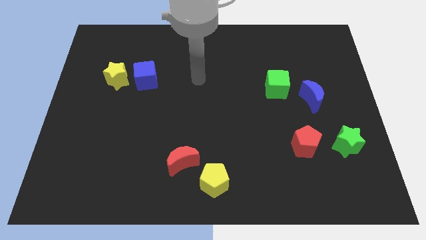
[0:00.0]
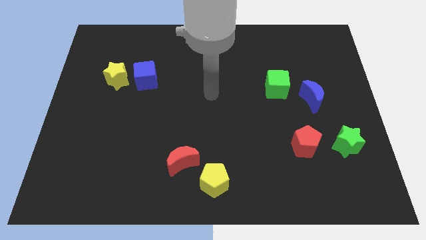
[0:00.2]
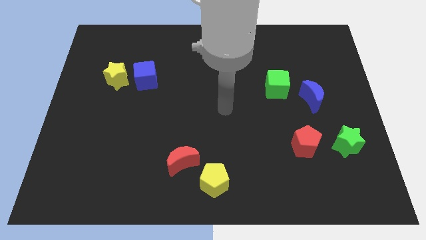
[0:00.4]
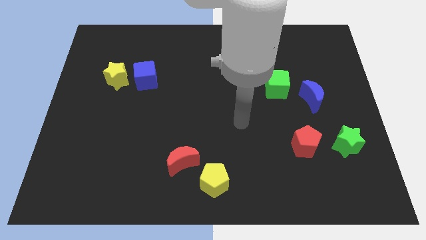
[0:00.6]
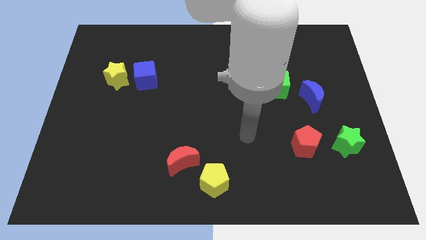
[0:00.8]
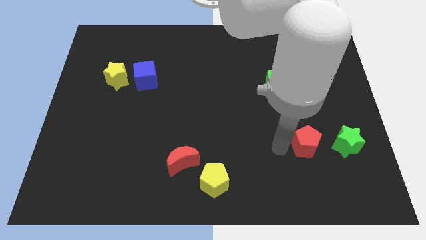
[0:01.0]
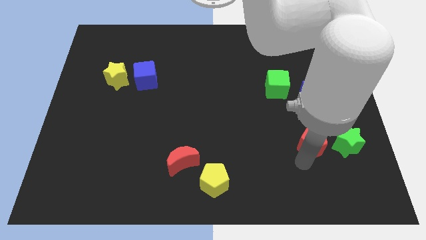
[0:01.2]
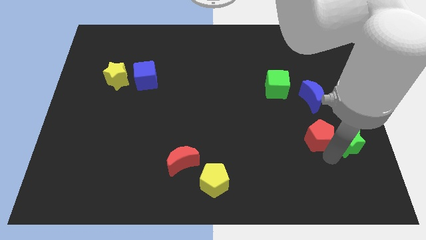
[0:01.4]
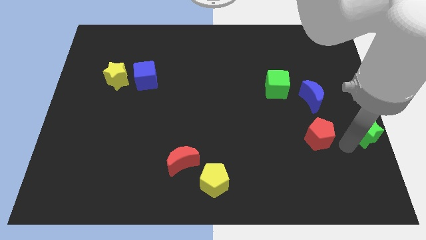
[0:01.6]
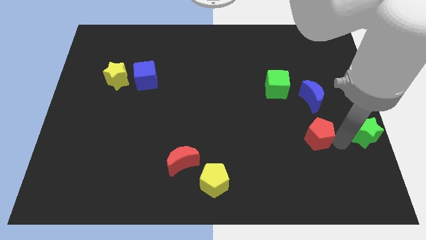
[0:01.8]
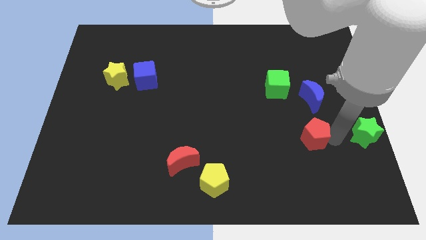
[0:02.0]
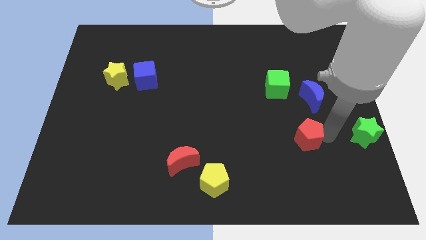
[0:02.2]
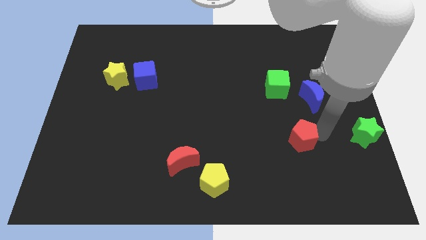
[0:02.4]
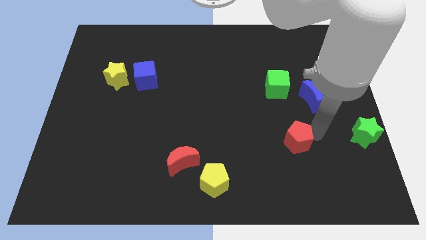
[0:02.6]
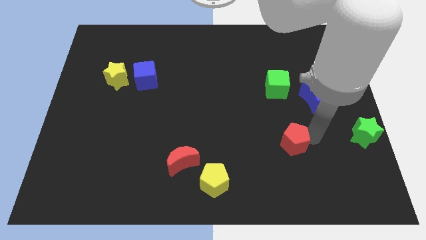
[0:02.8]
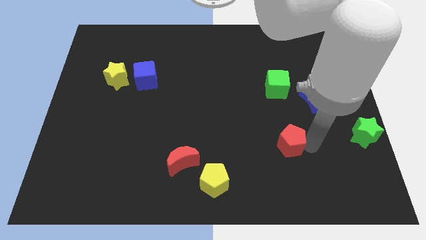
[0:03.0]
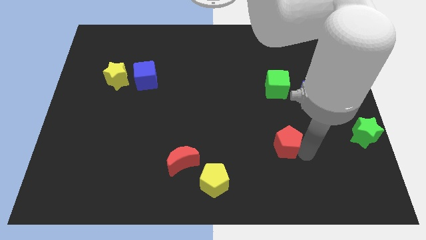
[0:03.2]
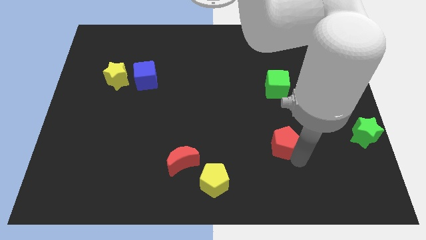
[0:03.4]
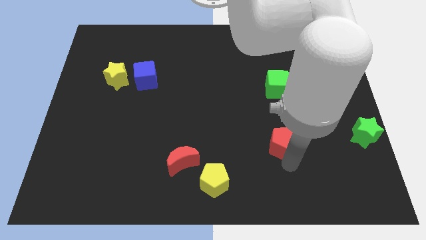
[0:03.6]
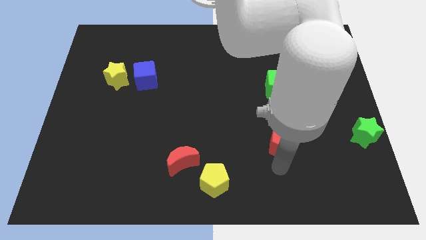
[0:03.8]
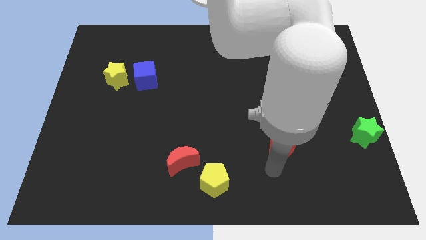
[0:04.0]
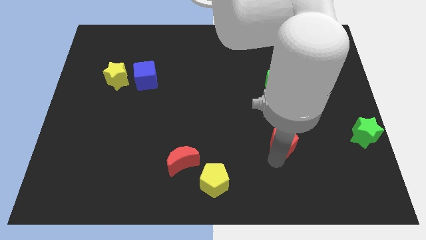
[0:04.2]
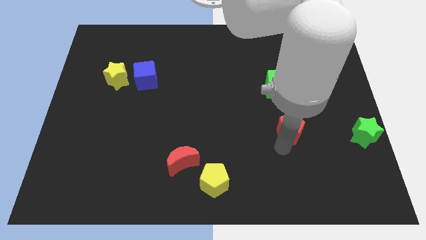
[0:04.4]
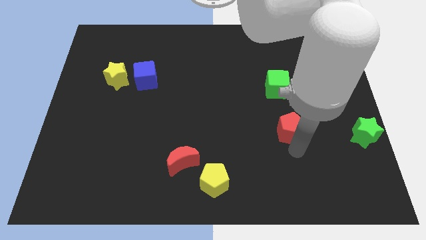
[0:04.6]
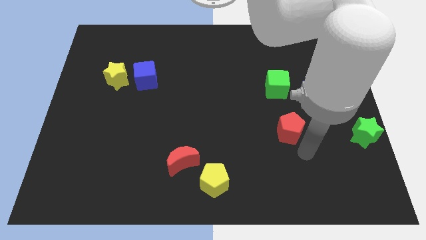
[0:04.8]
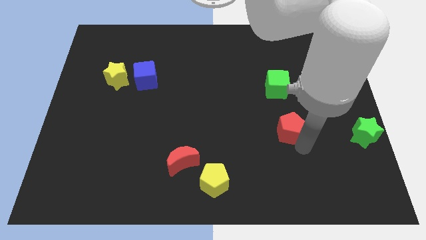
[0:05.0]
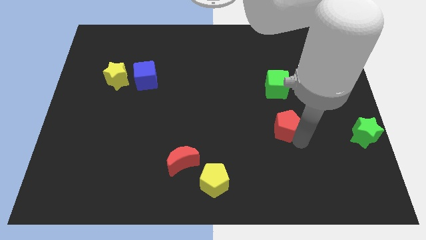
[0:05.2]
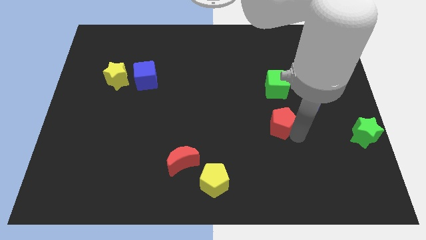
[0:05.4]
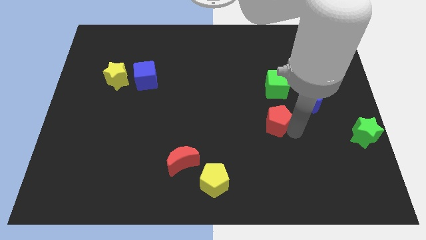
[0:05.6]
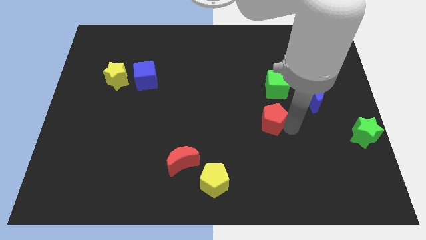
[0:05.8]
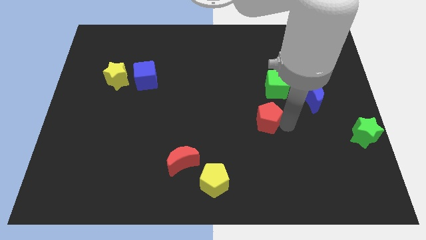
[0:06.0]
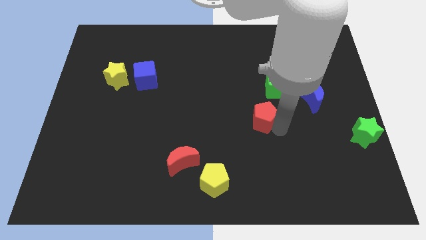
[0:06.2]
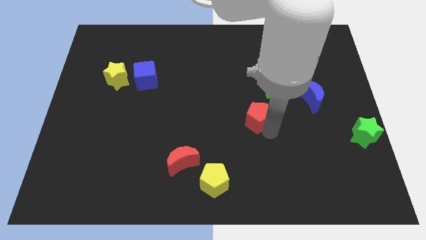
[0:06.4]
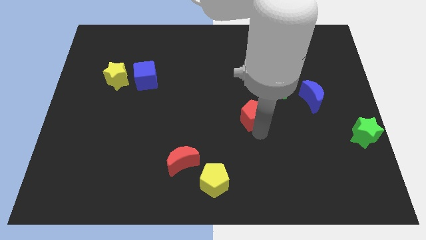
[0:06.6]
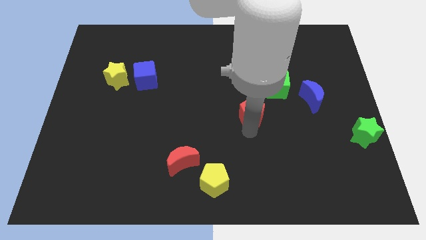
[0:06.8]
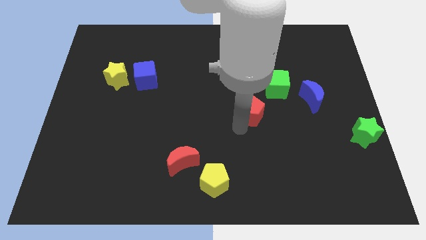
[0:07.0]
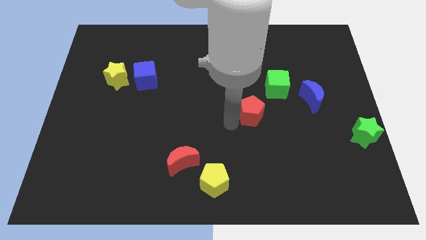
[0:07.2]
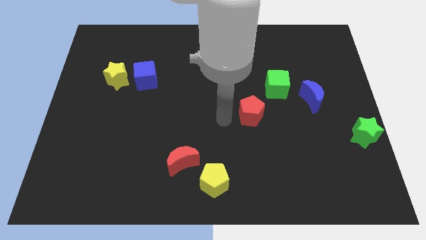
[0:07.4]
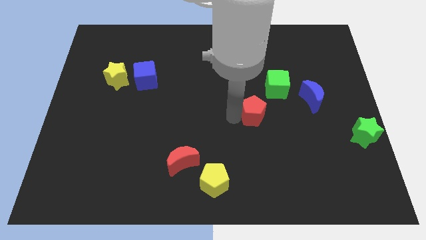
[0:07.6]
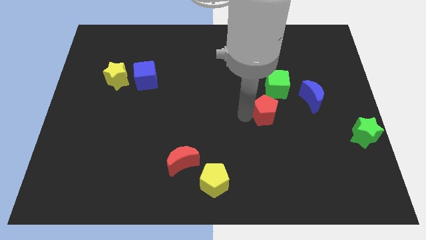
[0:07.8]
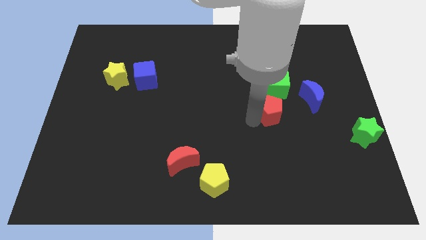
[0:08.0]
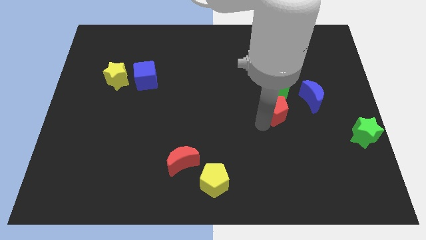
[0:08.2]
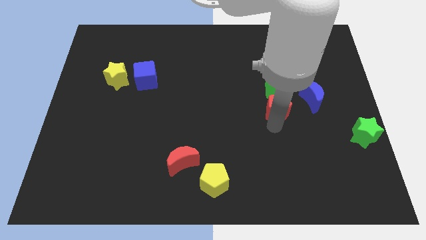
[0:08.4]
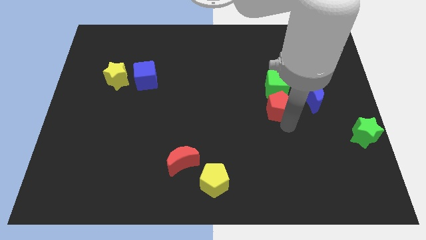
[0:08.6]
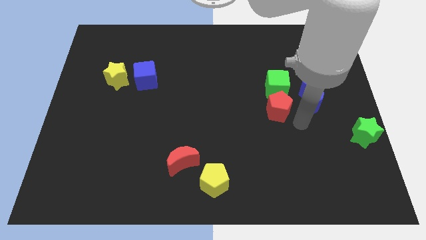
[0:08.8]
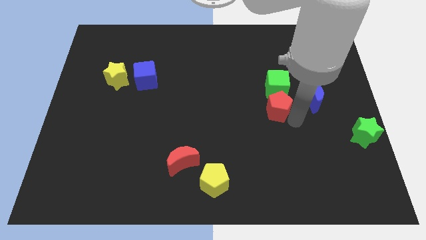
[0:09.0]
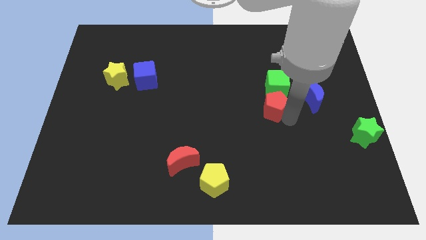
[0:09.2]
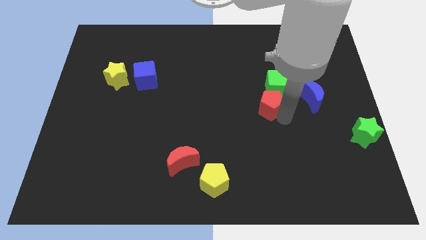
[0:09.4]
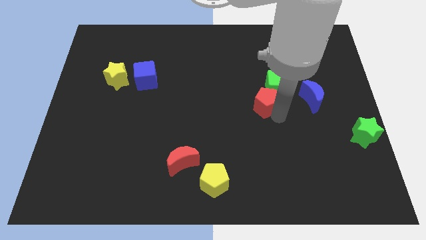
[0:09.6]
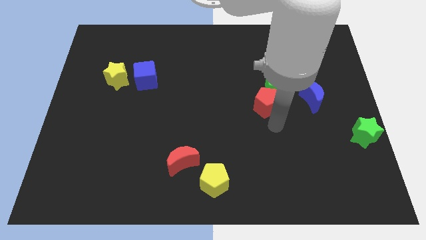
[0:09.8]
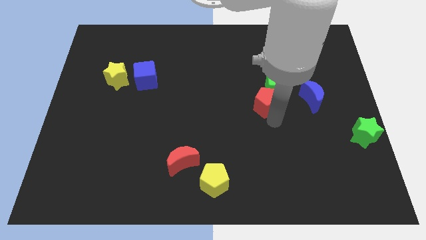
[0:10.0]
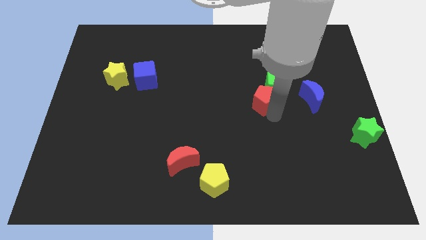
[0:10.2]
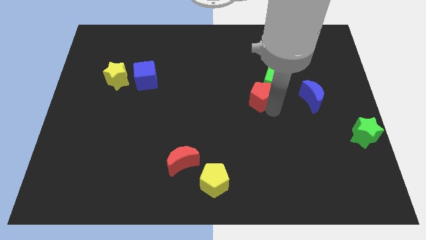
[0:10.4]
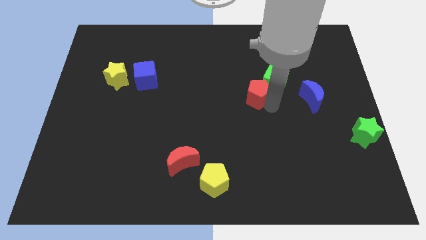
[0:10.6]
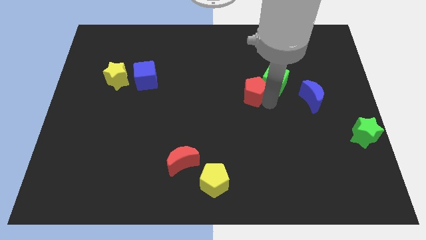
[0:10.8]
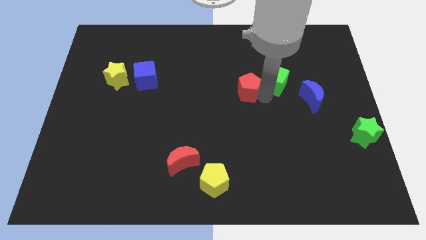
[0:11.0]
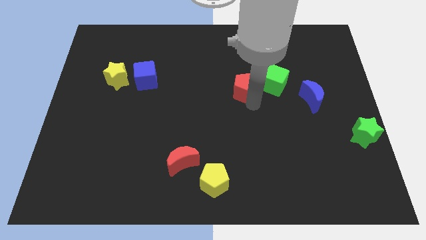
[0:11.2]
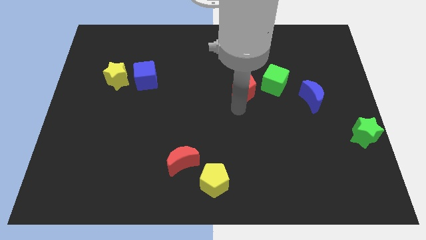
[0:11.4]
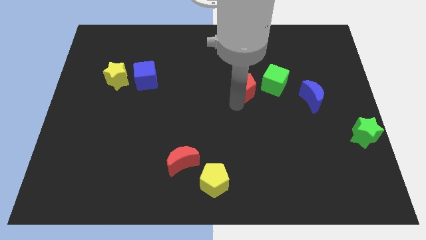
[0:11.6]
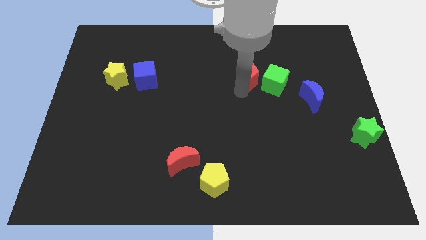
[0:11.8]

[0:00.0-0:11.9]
push the red pentagon to the top left of the green cube

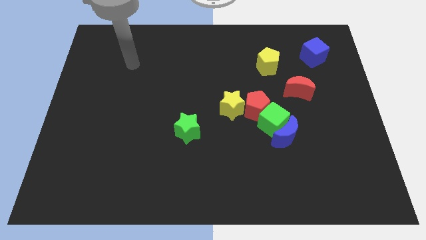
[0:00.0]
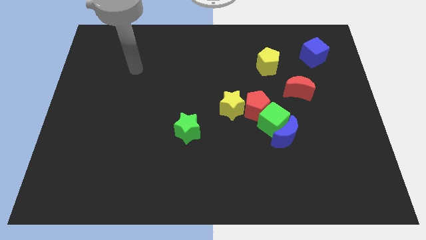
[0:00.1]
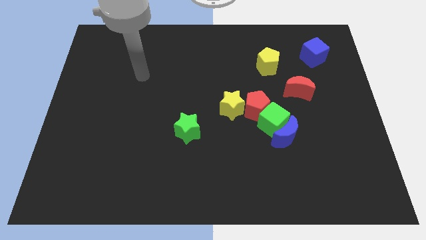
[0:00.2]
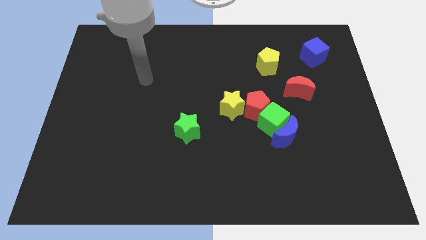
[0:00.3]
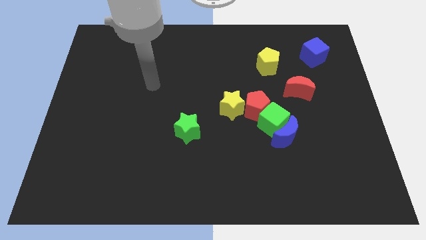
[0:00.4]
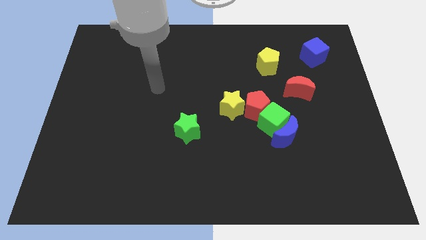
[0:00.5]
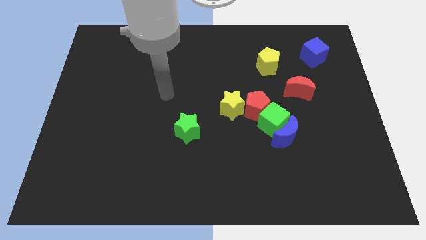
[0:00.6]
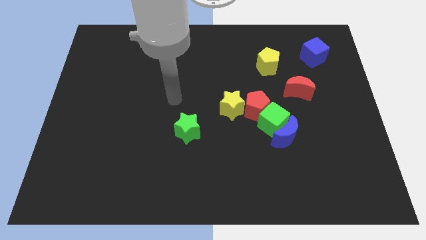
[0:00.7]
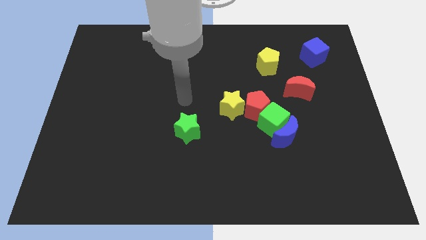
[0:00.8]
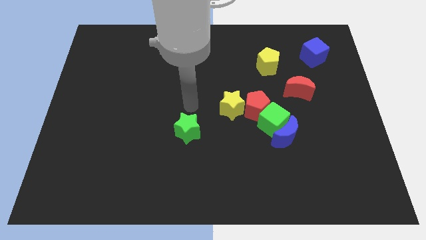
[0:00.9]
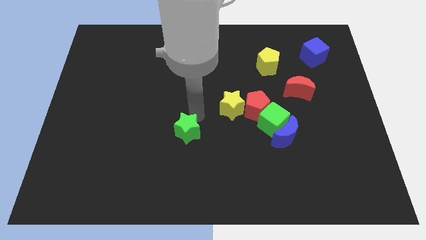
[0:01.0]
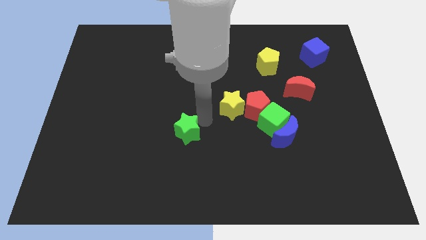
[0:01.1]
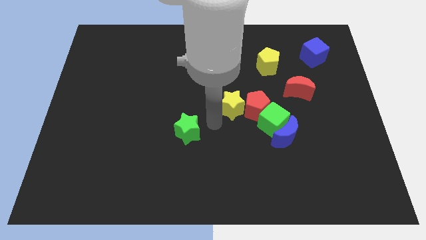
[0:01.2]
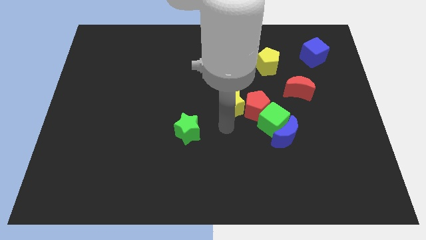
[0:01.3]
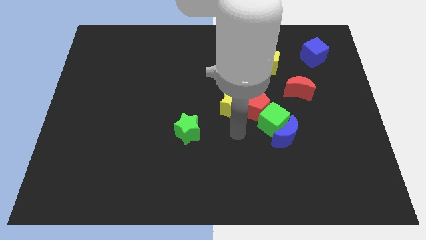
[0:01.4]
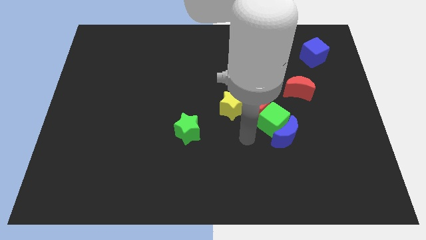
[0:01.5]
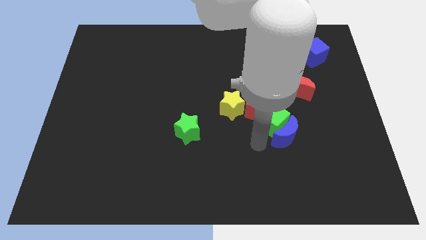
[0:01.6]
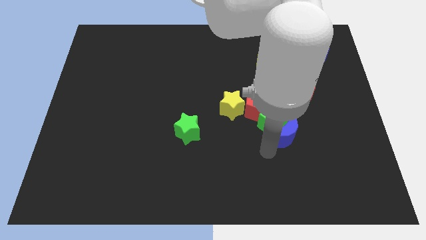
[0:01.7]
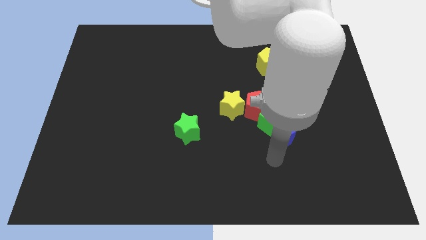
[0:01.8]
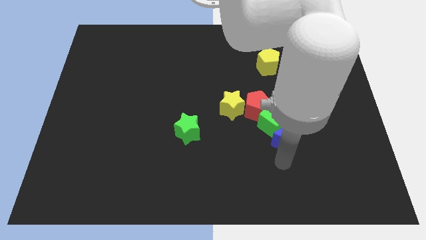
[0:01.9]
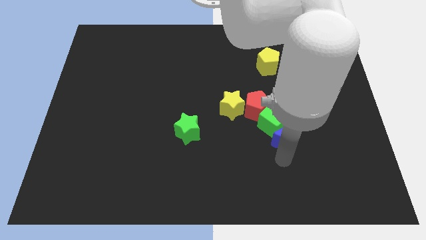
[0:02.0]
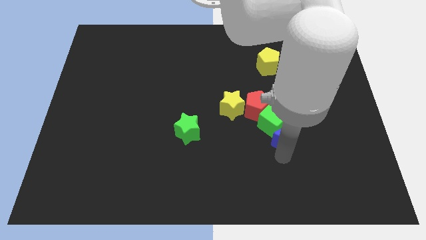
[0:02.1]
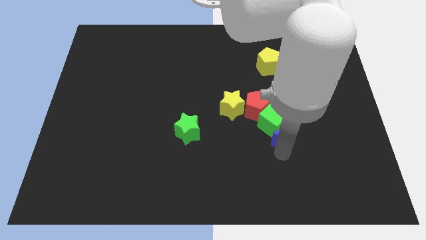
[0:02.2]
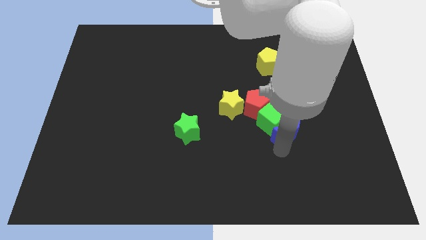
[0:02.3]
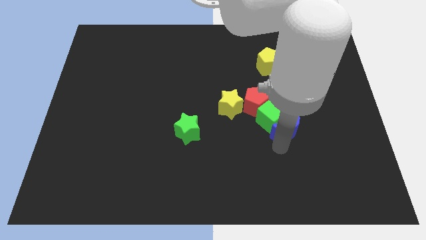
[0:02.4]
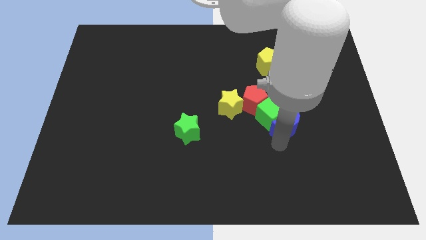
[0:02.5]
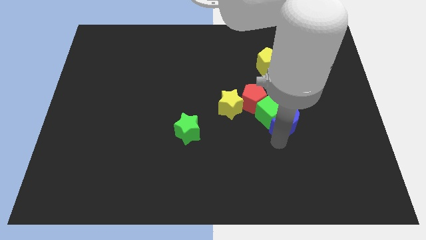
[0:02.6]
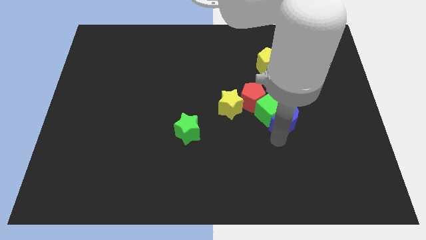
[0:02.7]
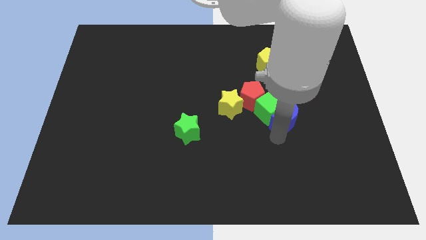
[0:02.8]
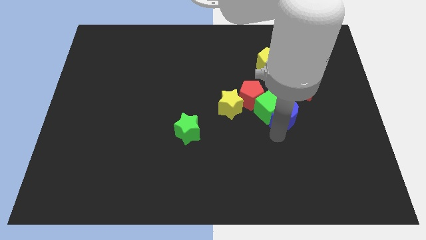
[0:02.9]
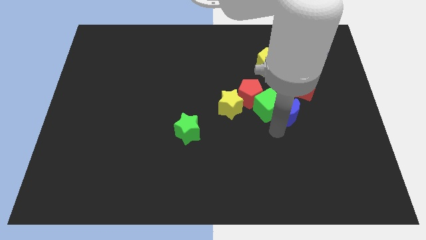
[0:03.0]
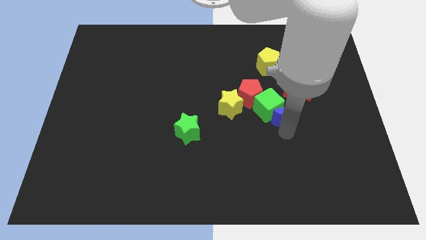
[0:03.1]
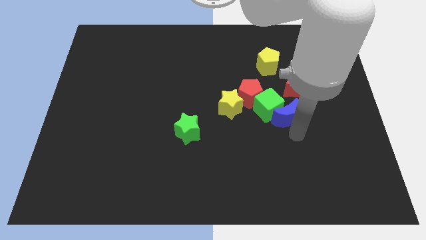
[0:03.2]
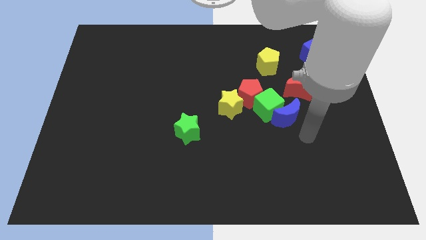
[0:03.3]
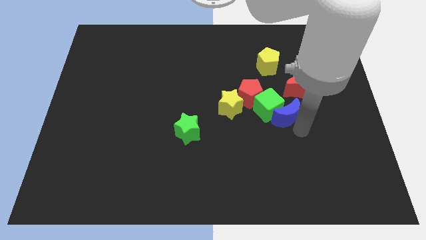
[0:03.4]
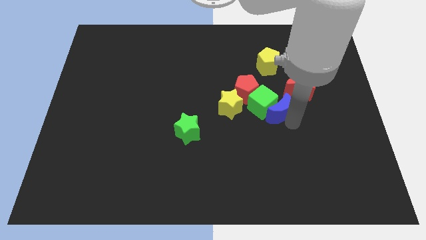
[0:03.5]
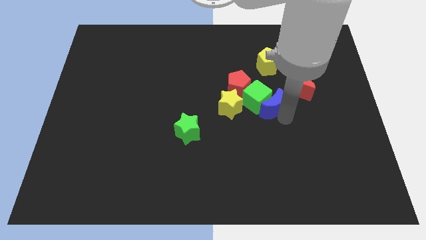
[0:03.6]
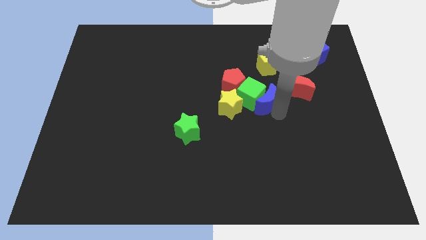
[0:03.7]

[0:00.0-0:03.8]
slide the blue moon to the left of the red moon
